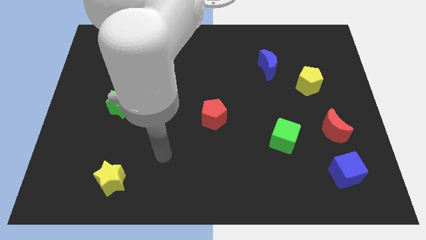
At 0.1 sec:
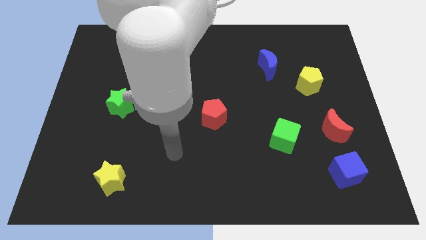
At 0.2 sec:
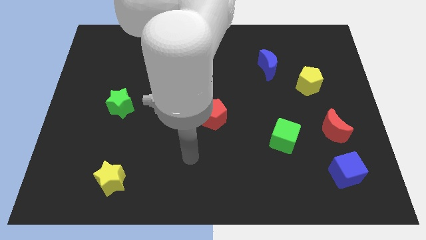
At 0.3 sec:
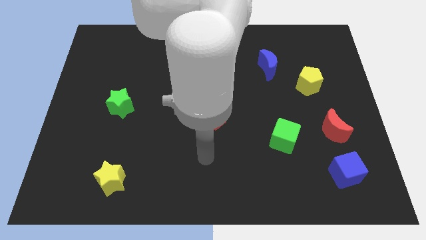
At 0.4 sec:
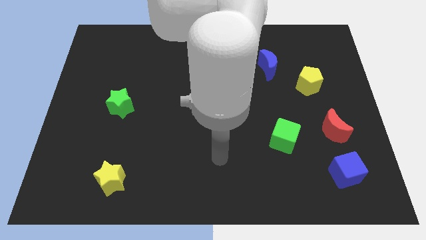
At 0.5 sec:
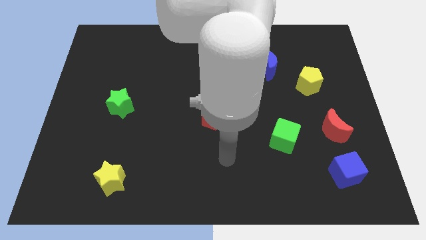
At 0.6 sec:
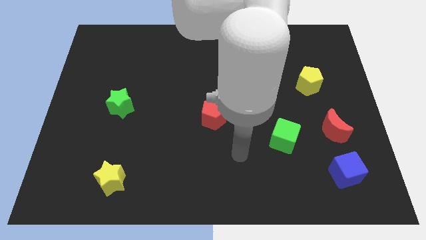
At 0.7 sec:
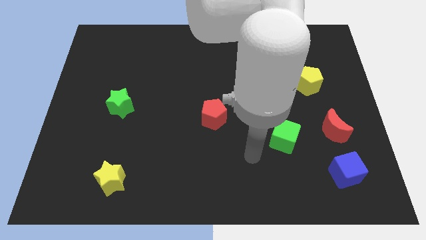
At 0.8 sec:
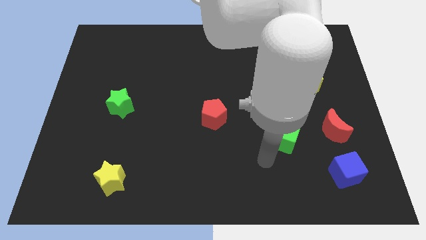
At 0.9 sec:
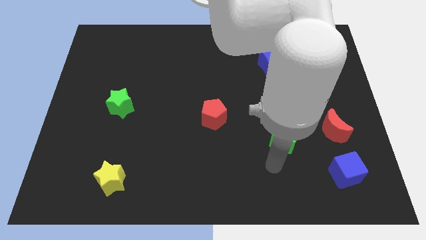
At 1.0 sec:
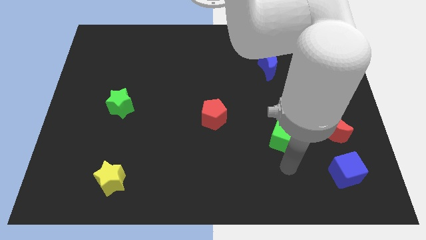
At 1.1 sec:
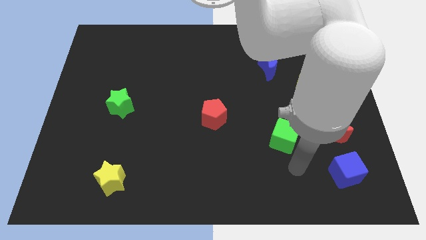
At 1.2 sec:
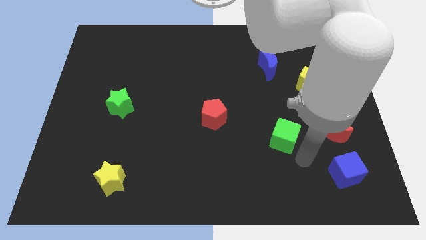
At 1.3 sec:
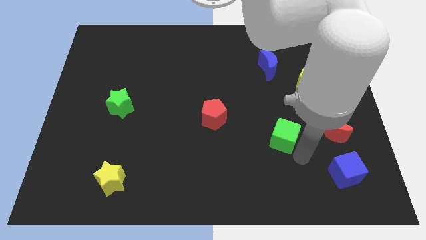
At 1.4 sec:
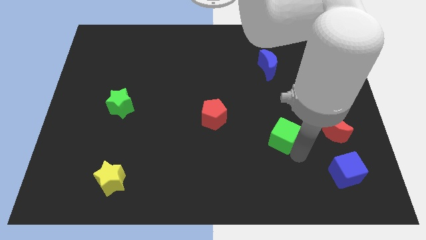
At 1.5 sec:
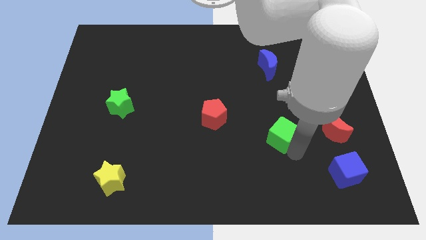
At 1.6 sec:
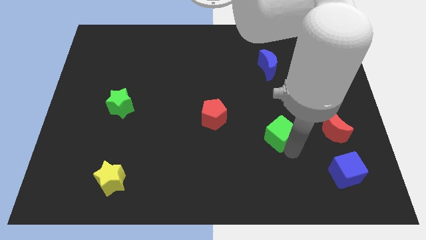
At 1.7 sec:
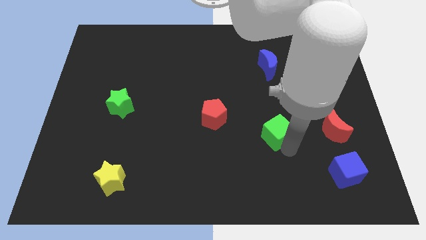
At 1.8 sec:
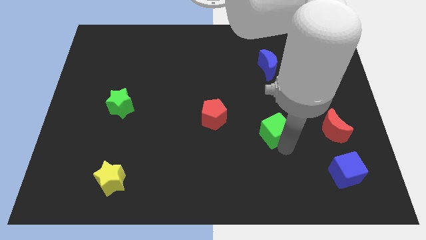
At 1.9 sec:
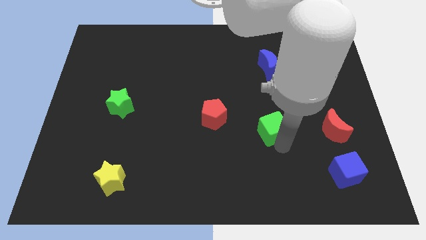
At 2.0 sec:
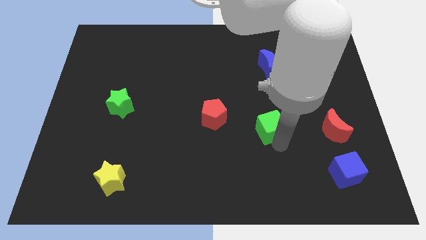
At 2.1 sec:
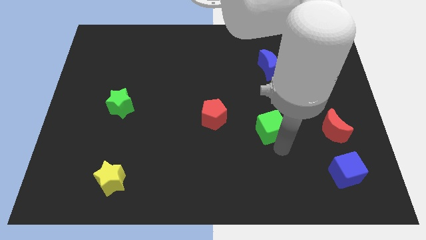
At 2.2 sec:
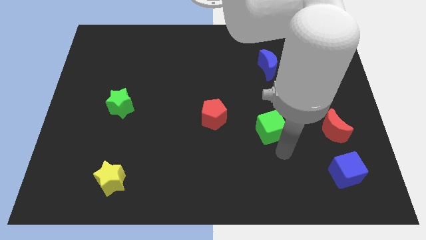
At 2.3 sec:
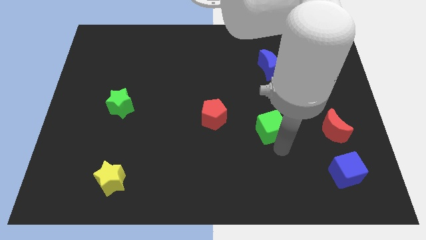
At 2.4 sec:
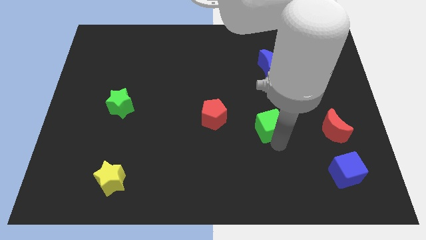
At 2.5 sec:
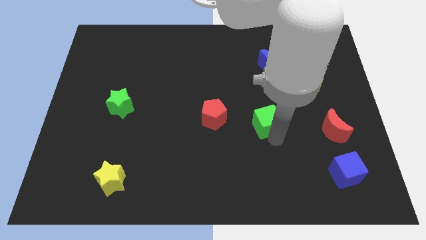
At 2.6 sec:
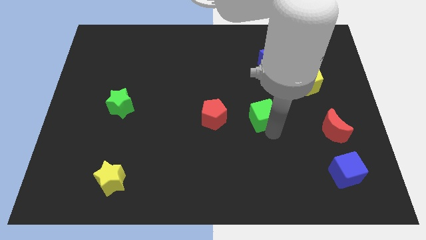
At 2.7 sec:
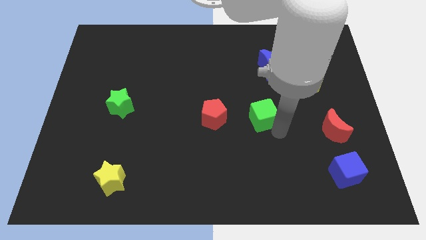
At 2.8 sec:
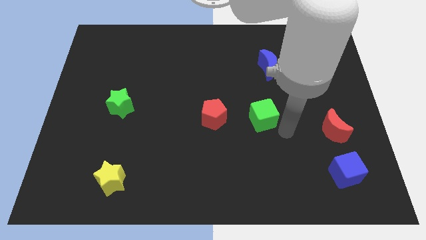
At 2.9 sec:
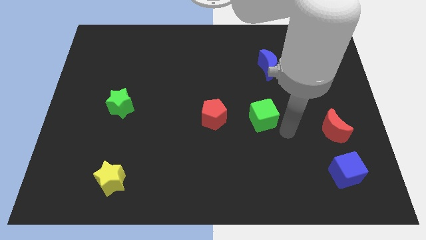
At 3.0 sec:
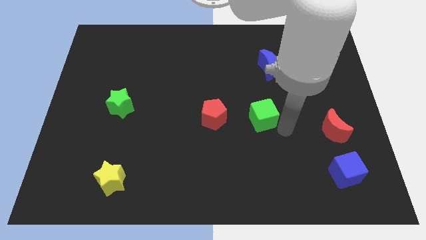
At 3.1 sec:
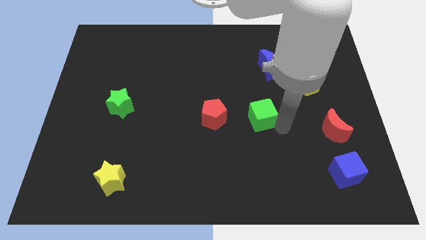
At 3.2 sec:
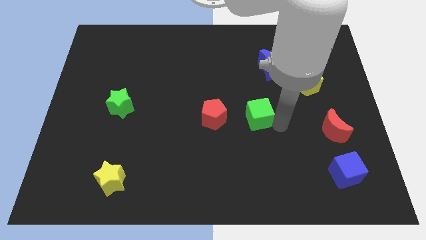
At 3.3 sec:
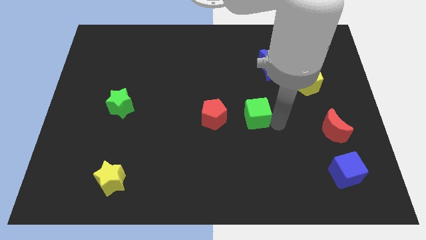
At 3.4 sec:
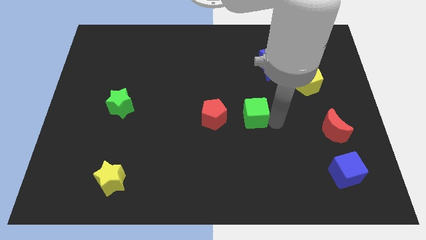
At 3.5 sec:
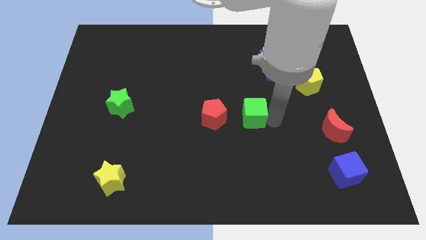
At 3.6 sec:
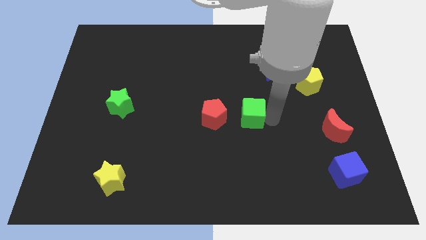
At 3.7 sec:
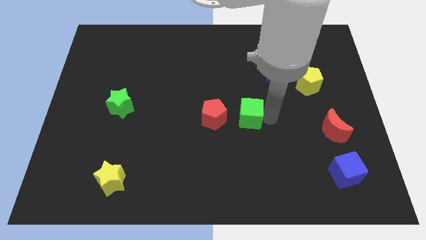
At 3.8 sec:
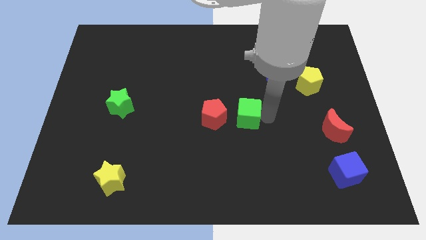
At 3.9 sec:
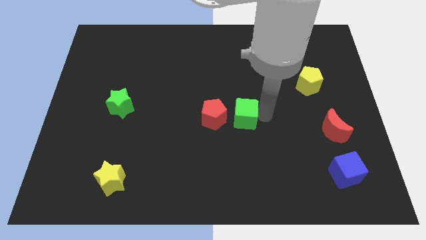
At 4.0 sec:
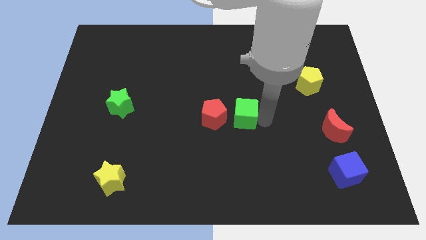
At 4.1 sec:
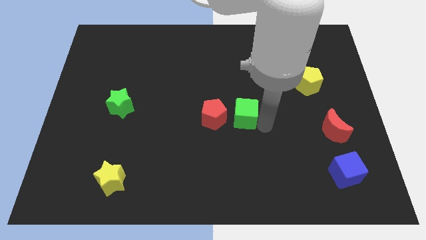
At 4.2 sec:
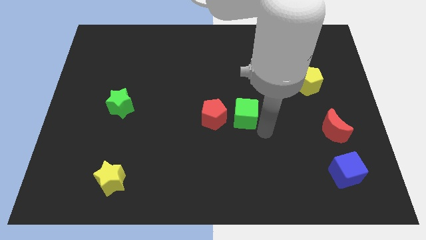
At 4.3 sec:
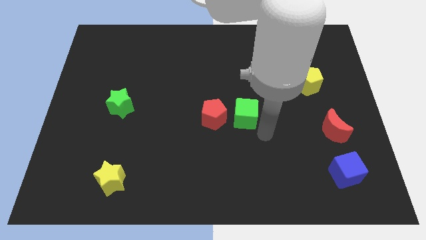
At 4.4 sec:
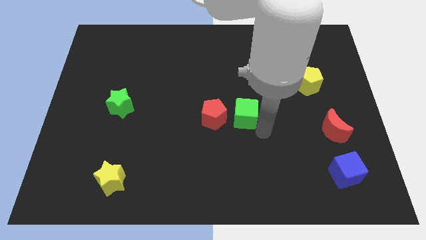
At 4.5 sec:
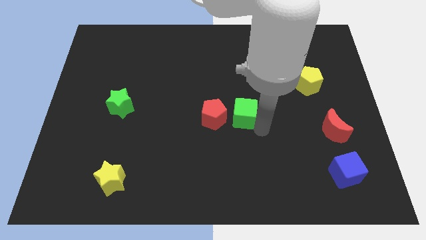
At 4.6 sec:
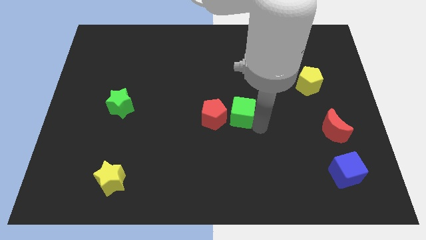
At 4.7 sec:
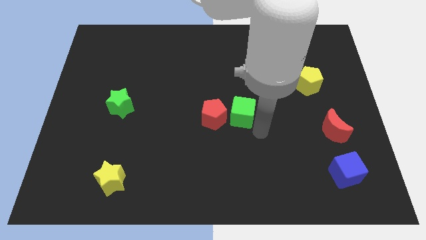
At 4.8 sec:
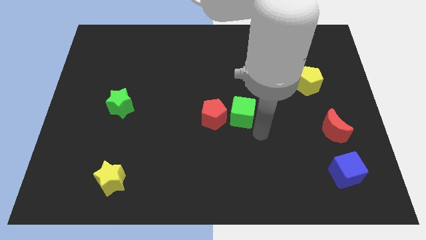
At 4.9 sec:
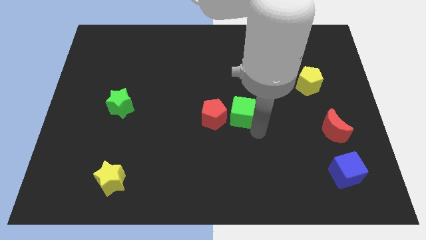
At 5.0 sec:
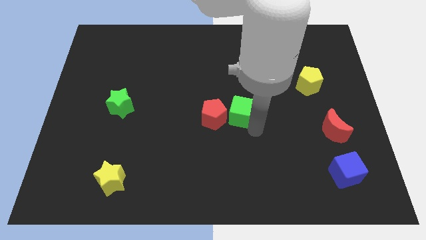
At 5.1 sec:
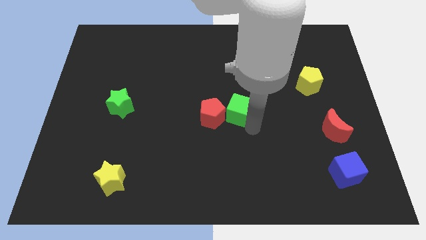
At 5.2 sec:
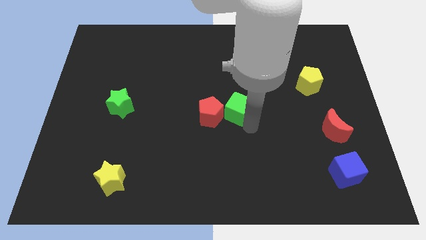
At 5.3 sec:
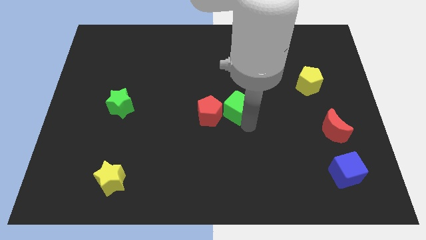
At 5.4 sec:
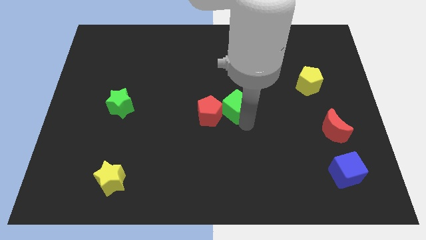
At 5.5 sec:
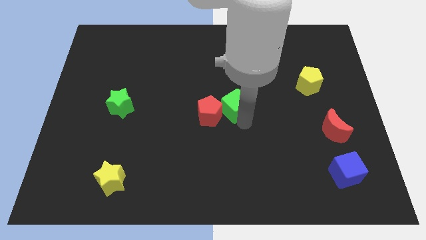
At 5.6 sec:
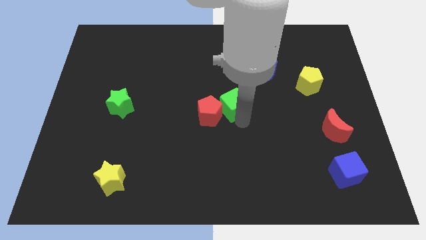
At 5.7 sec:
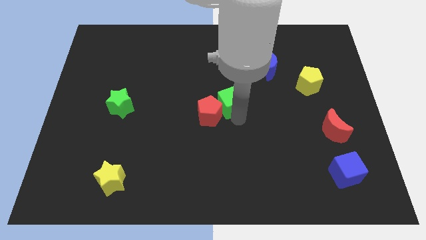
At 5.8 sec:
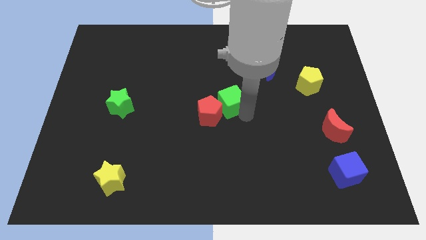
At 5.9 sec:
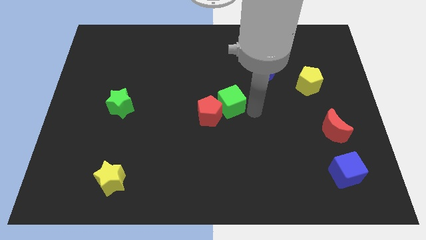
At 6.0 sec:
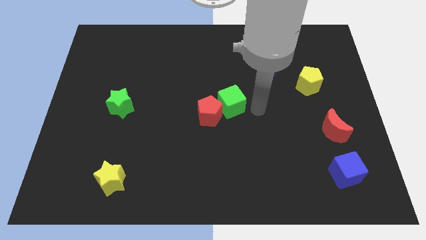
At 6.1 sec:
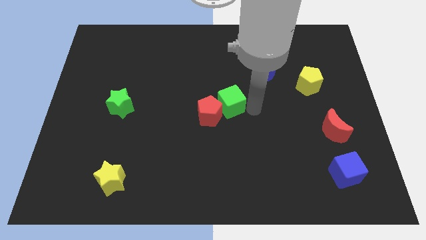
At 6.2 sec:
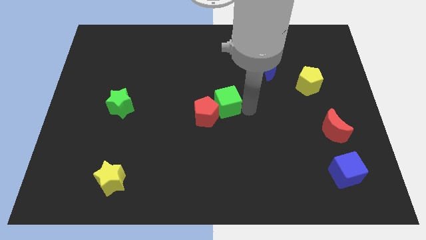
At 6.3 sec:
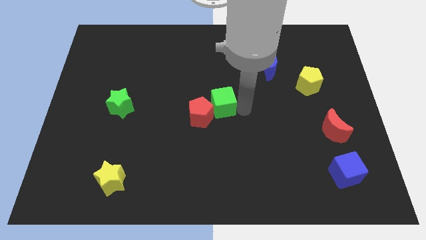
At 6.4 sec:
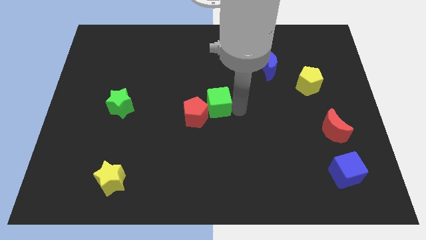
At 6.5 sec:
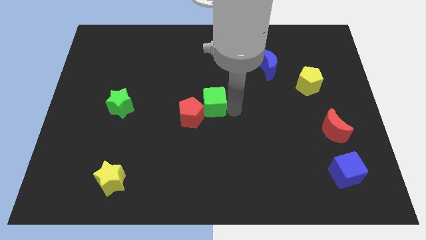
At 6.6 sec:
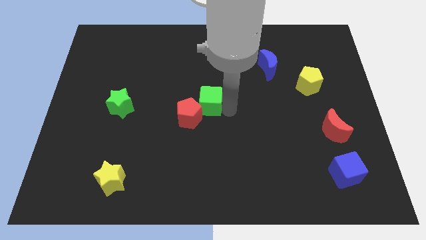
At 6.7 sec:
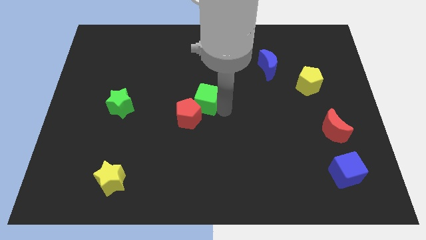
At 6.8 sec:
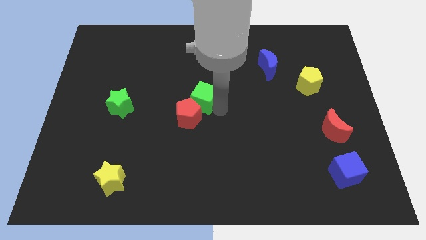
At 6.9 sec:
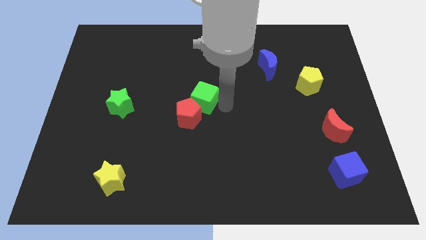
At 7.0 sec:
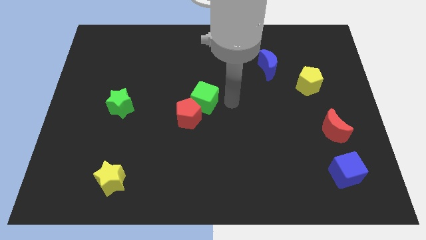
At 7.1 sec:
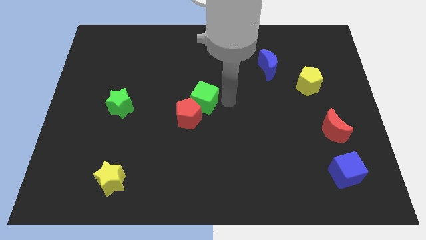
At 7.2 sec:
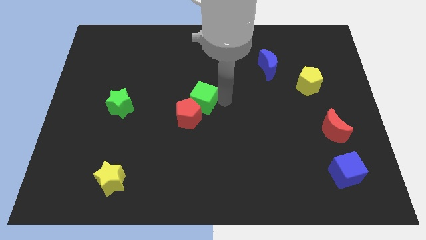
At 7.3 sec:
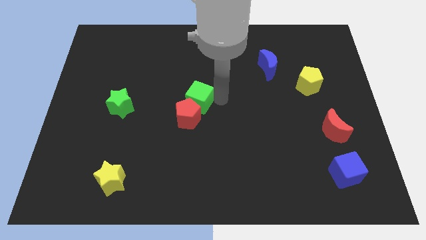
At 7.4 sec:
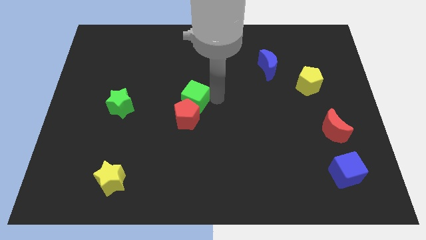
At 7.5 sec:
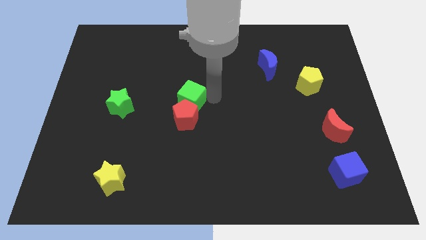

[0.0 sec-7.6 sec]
put the green cube diagonally up and to the left of the red pentagon
